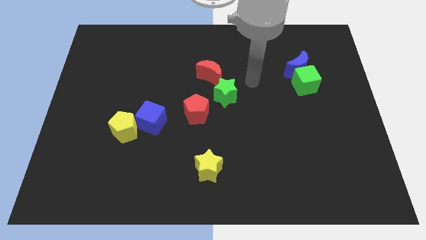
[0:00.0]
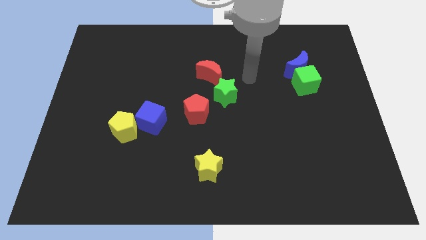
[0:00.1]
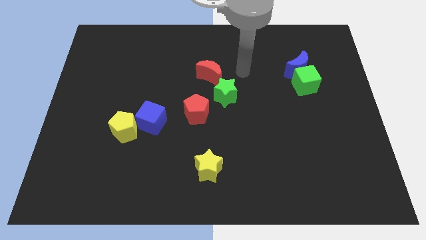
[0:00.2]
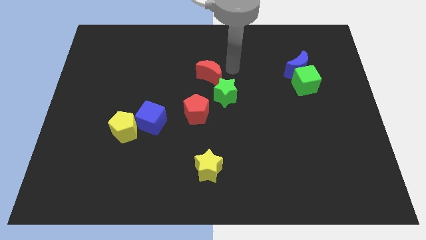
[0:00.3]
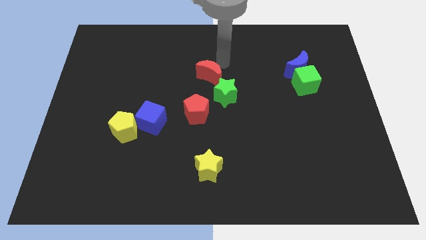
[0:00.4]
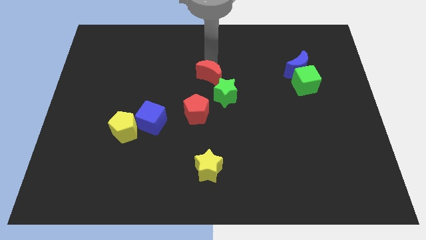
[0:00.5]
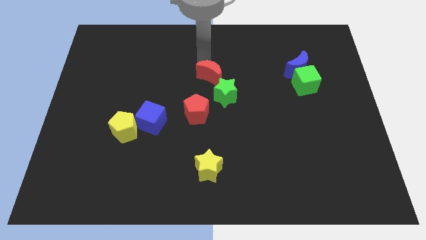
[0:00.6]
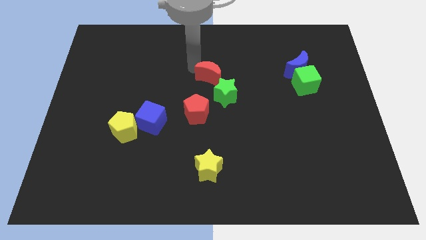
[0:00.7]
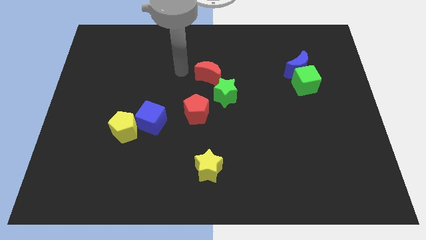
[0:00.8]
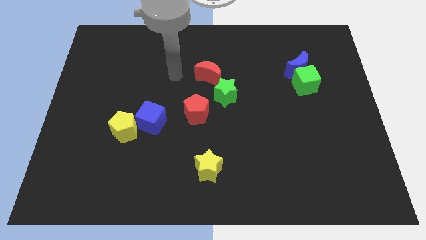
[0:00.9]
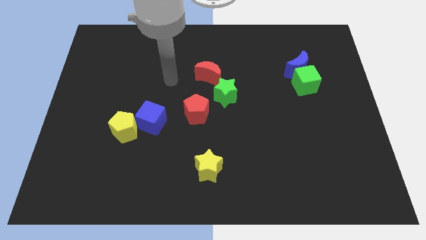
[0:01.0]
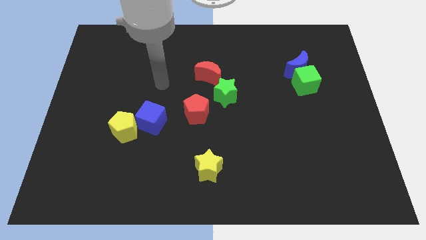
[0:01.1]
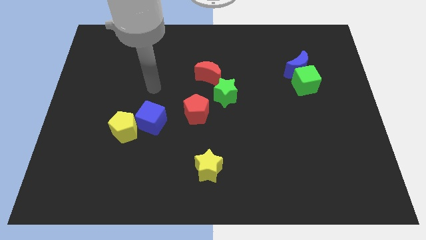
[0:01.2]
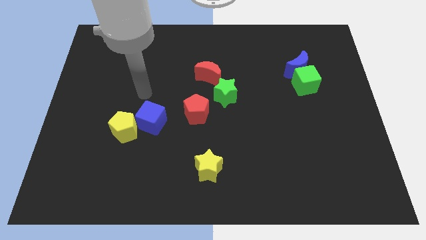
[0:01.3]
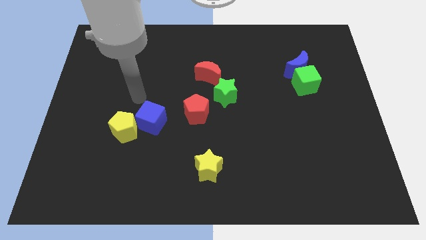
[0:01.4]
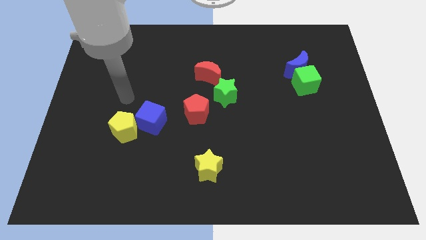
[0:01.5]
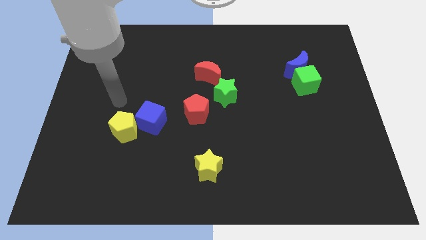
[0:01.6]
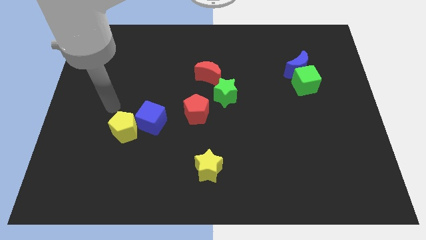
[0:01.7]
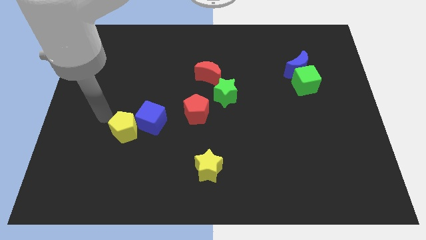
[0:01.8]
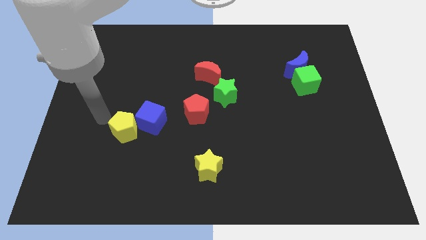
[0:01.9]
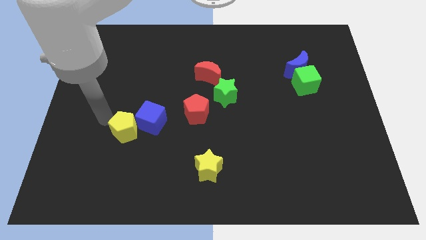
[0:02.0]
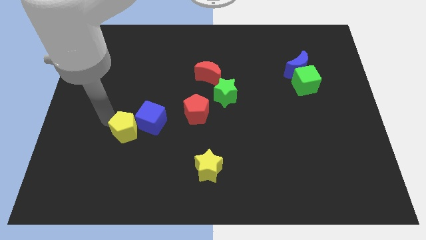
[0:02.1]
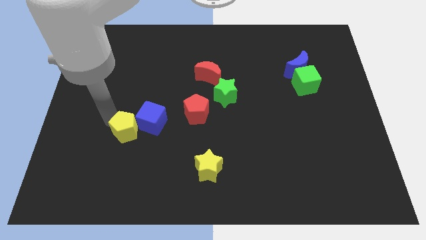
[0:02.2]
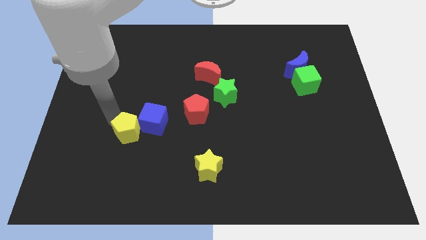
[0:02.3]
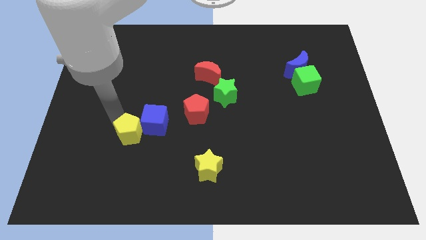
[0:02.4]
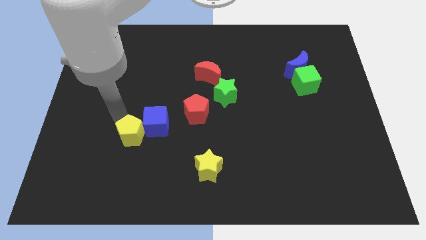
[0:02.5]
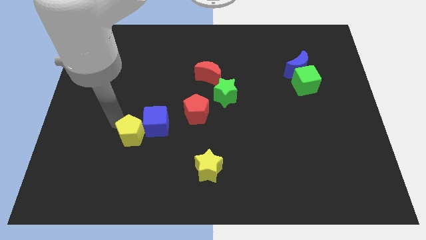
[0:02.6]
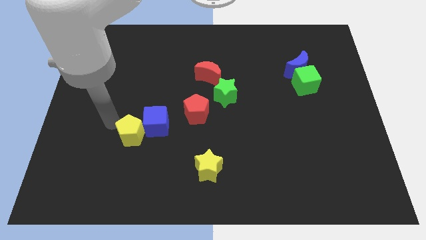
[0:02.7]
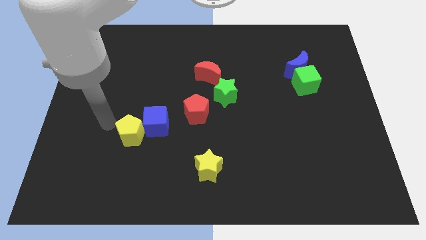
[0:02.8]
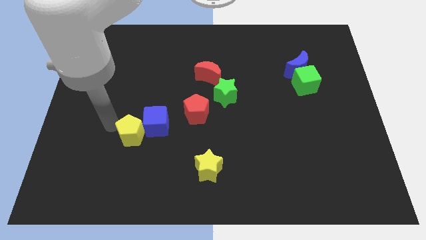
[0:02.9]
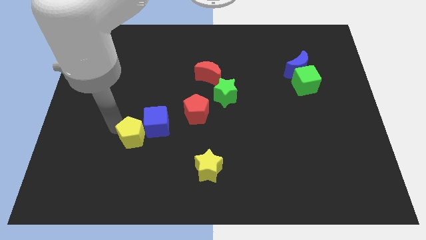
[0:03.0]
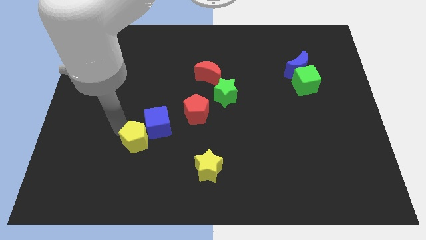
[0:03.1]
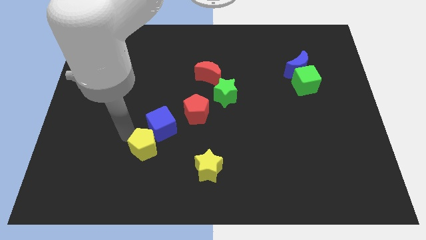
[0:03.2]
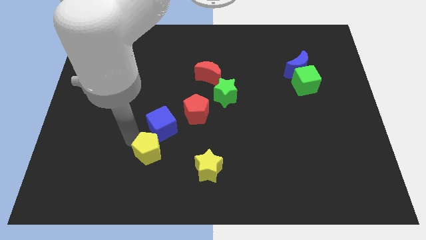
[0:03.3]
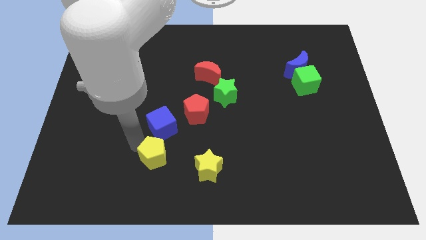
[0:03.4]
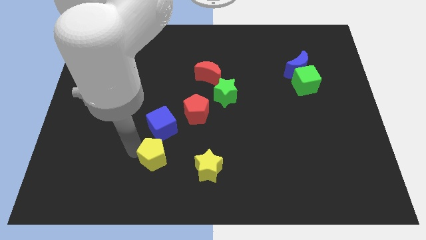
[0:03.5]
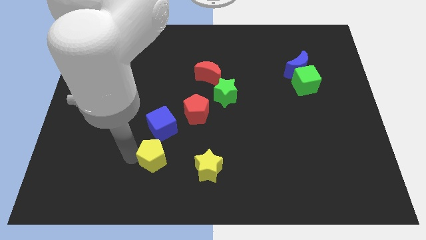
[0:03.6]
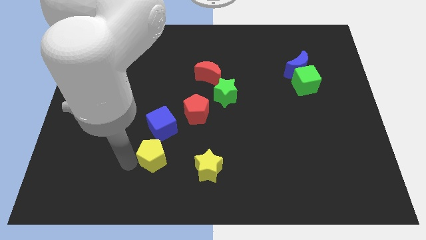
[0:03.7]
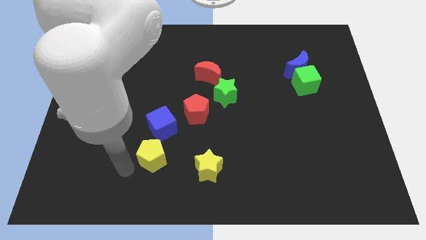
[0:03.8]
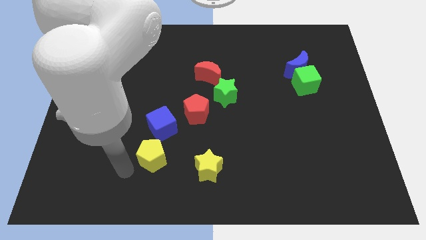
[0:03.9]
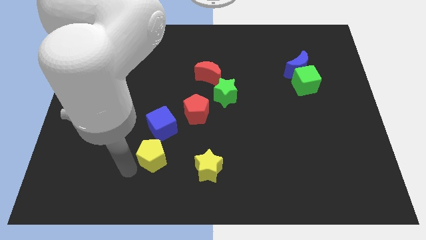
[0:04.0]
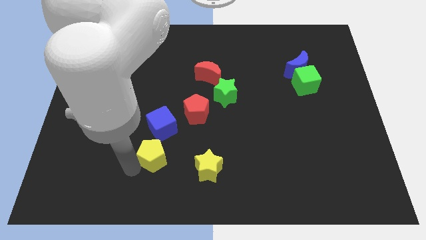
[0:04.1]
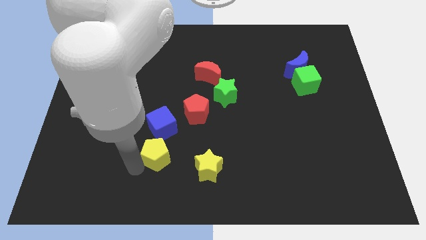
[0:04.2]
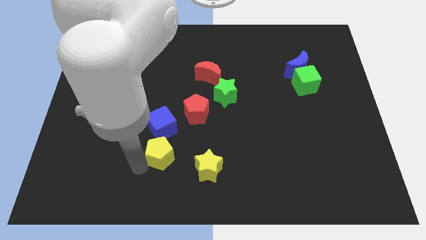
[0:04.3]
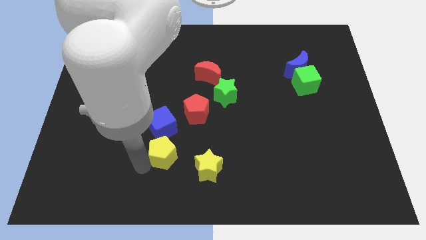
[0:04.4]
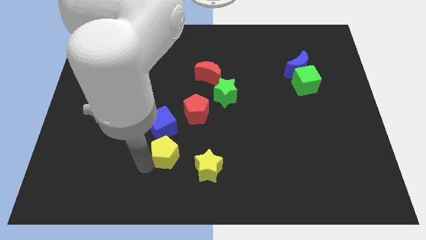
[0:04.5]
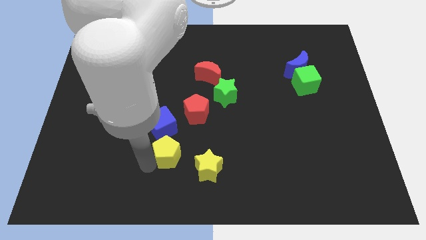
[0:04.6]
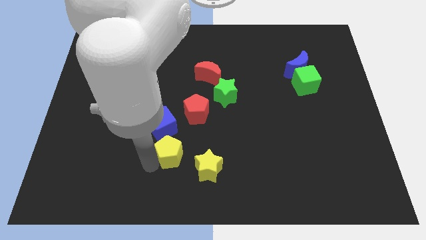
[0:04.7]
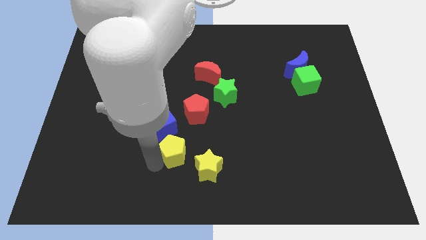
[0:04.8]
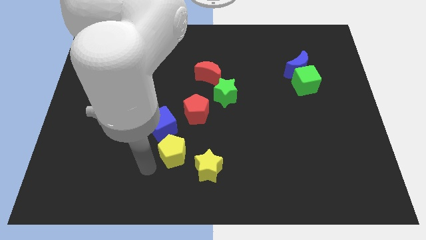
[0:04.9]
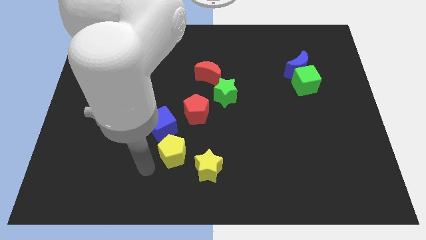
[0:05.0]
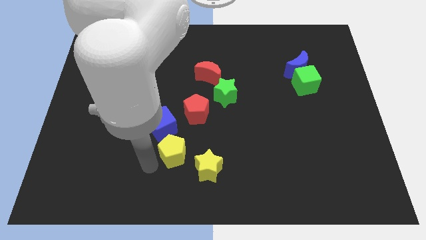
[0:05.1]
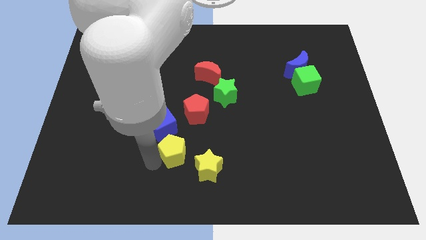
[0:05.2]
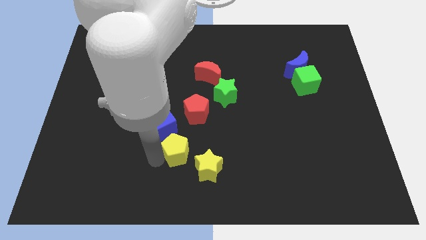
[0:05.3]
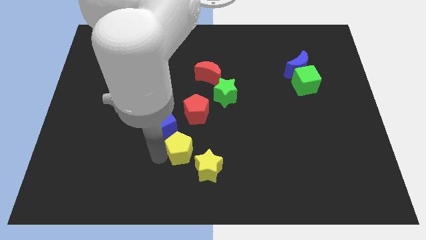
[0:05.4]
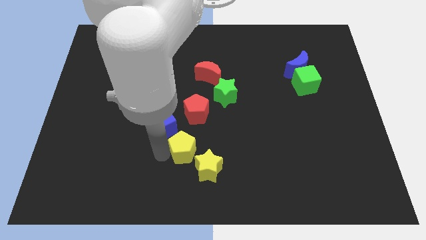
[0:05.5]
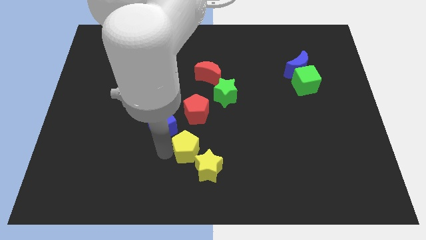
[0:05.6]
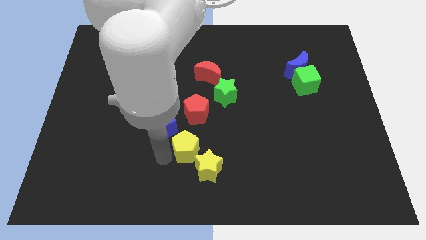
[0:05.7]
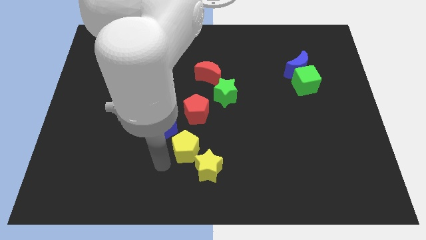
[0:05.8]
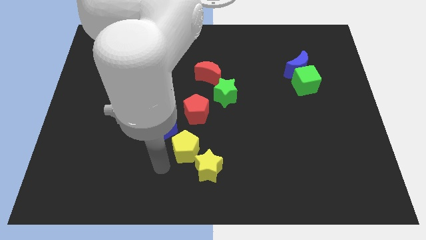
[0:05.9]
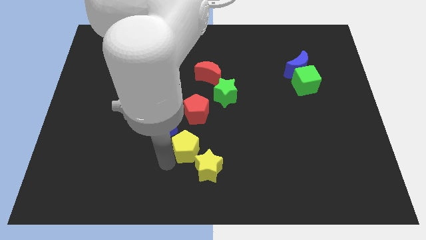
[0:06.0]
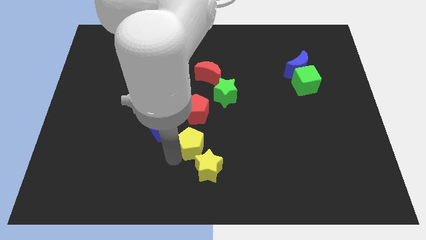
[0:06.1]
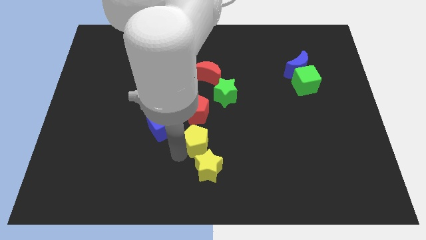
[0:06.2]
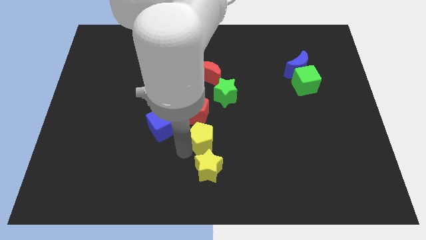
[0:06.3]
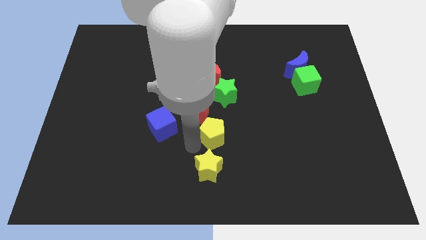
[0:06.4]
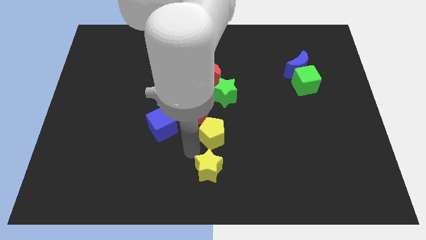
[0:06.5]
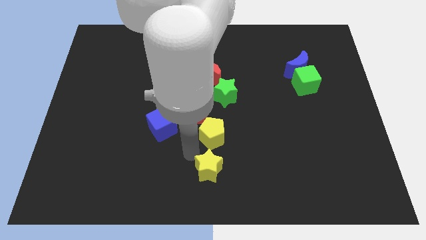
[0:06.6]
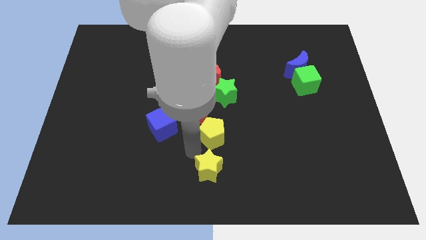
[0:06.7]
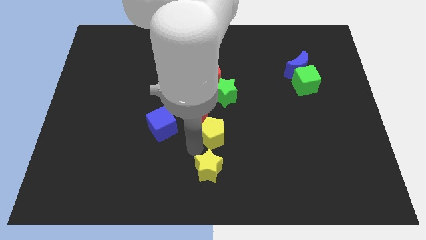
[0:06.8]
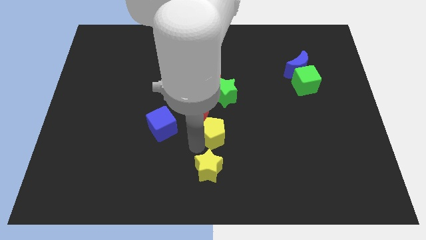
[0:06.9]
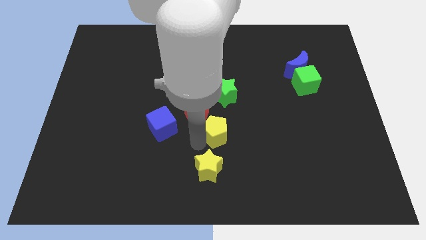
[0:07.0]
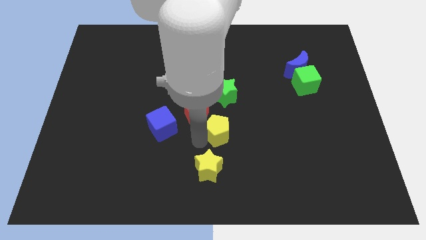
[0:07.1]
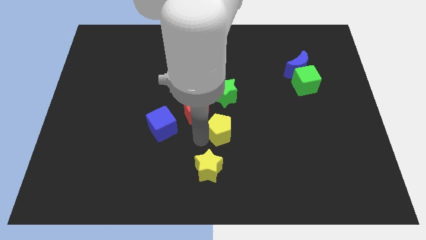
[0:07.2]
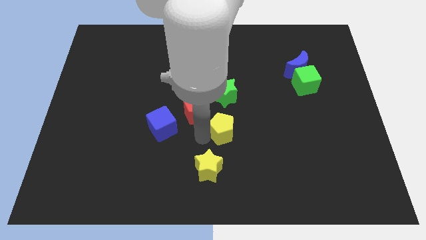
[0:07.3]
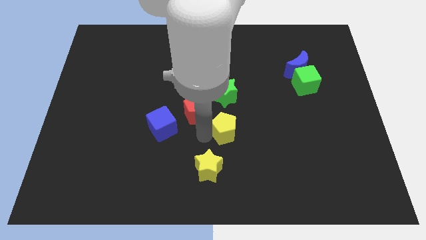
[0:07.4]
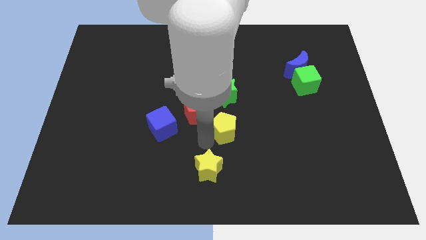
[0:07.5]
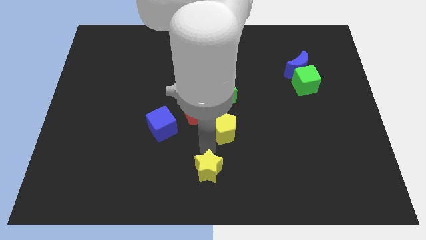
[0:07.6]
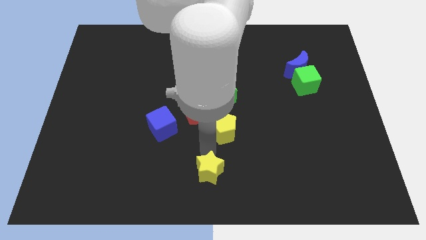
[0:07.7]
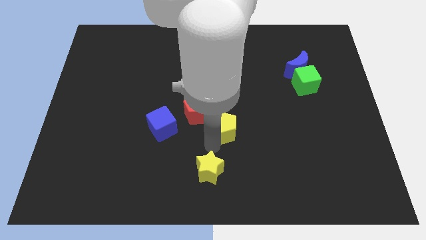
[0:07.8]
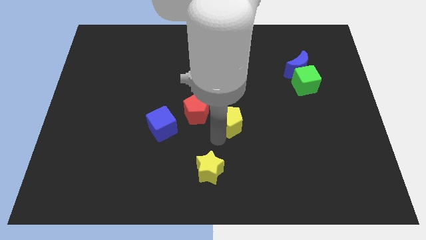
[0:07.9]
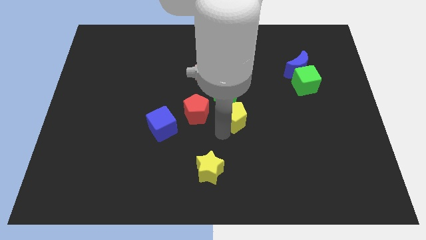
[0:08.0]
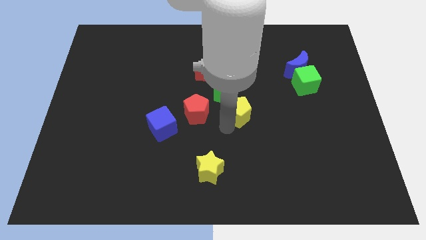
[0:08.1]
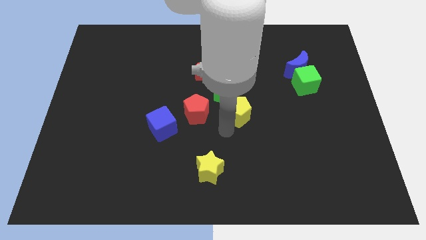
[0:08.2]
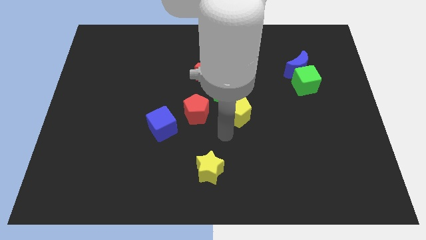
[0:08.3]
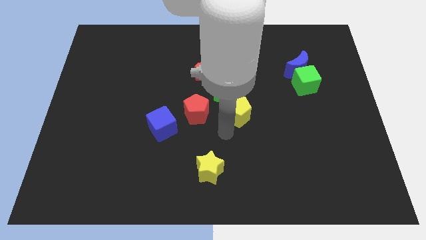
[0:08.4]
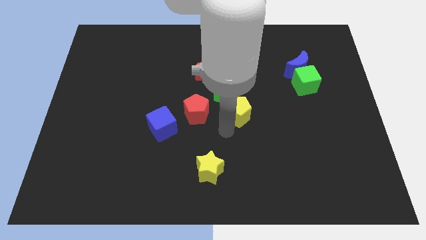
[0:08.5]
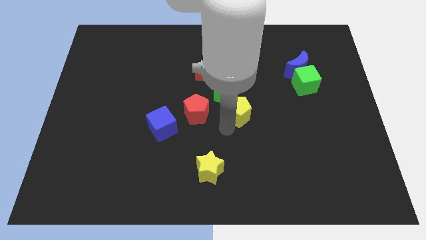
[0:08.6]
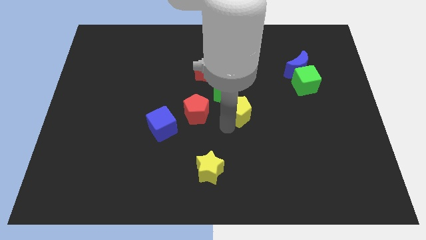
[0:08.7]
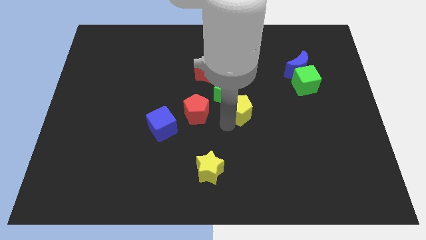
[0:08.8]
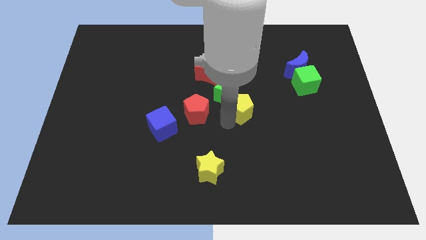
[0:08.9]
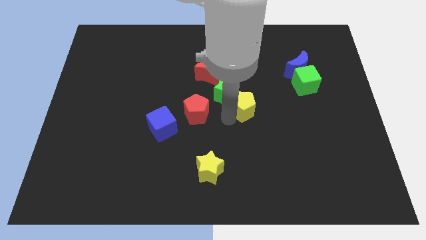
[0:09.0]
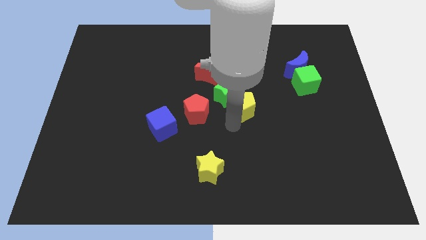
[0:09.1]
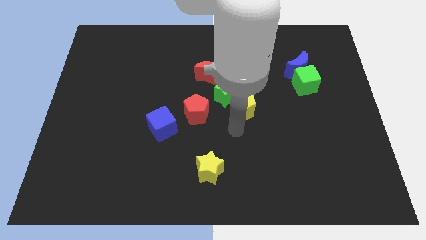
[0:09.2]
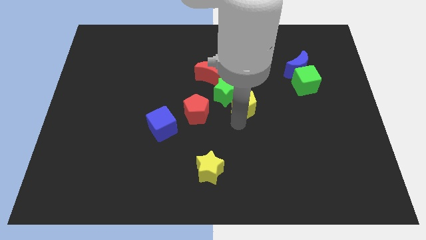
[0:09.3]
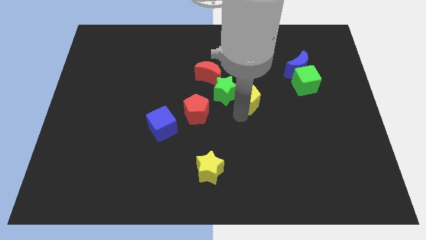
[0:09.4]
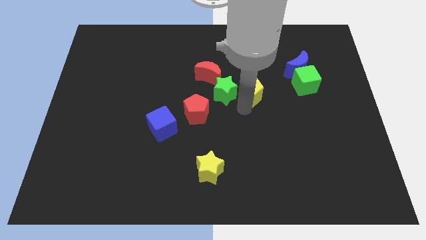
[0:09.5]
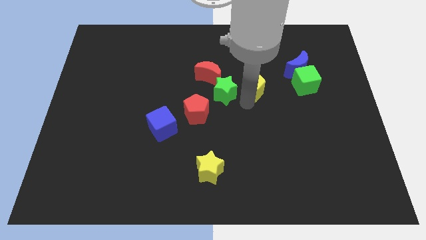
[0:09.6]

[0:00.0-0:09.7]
slide the yellow pentagon right of the red moon
